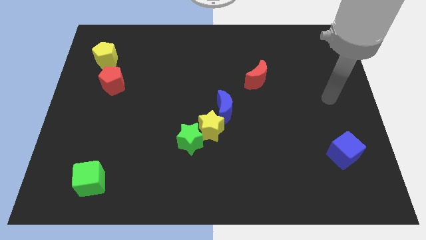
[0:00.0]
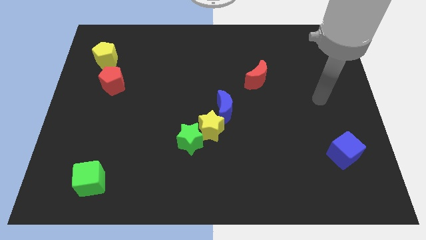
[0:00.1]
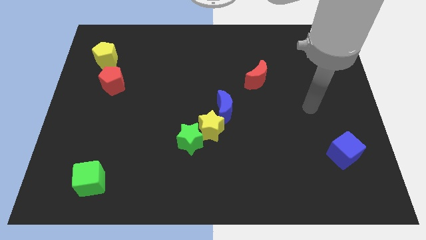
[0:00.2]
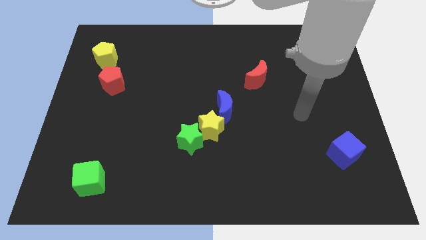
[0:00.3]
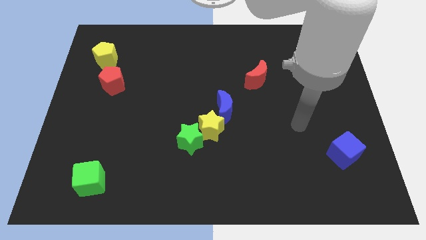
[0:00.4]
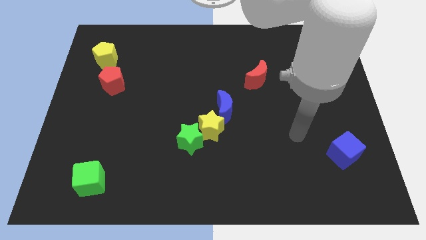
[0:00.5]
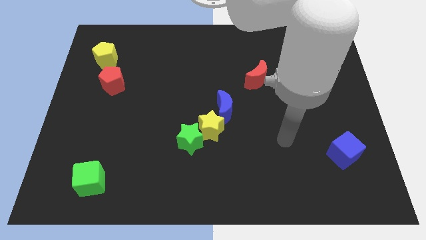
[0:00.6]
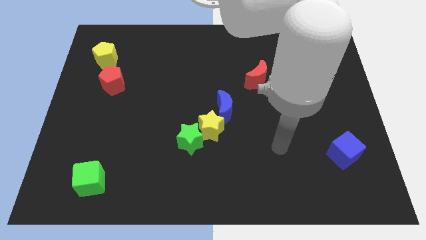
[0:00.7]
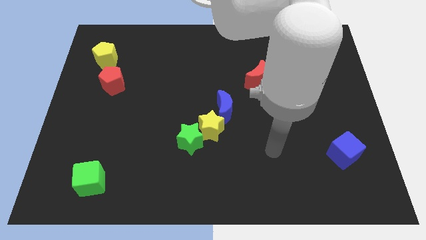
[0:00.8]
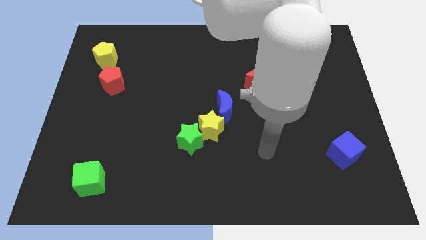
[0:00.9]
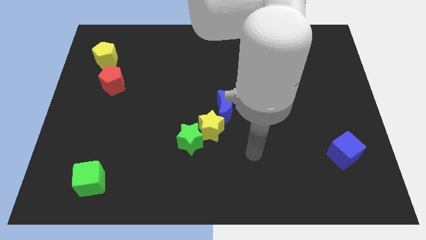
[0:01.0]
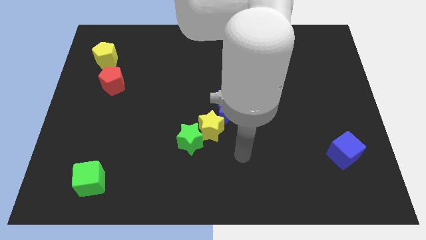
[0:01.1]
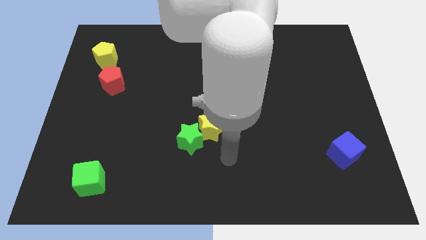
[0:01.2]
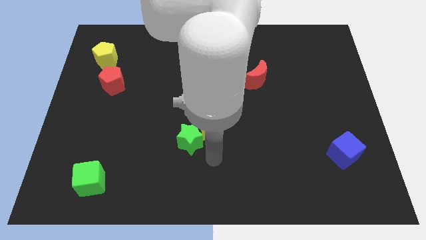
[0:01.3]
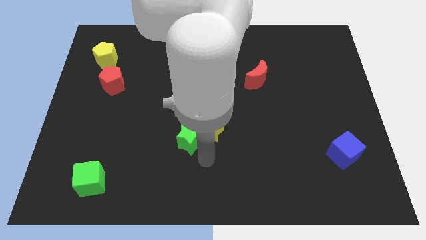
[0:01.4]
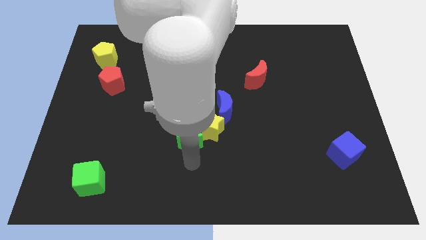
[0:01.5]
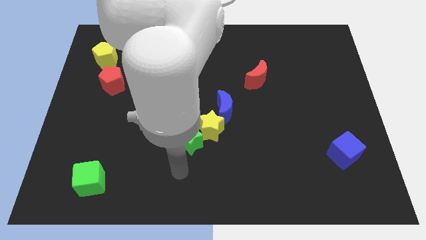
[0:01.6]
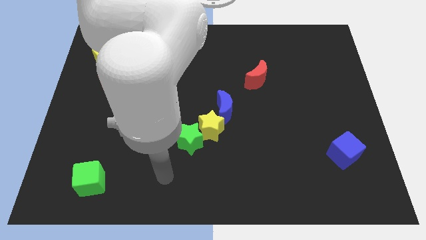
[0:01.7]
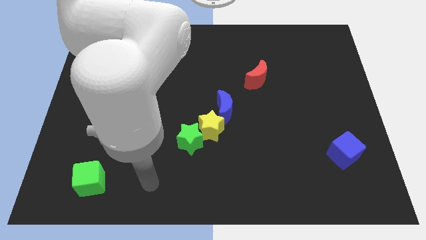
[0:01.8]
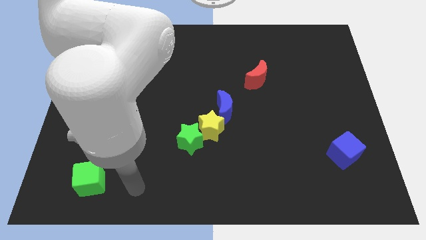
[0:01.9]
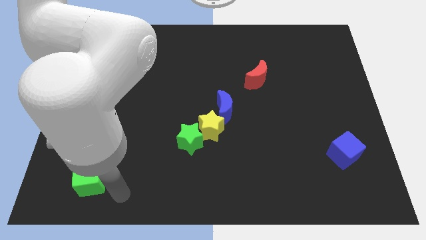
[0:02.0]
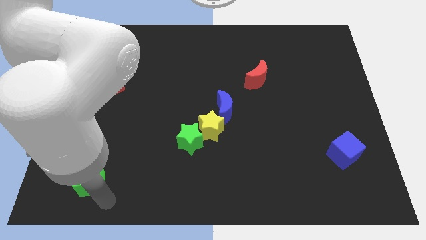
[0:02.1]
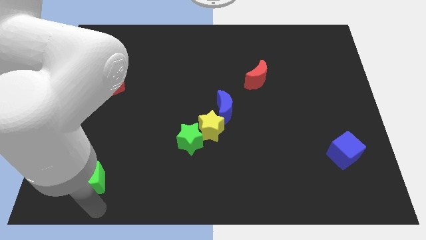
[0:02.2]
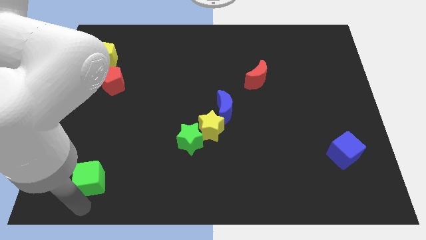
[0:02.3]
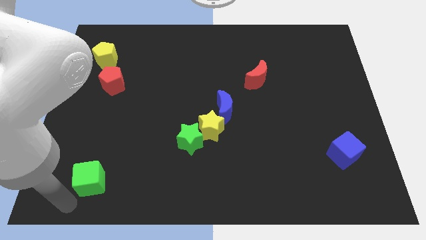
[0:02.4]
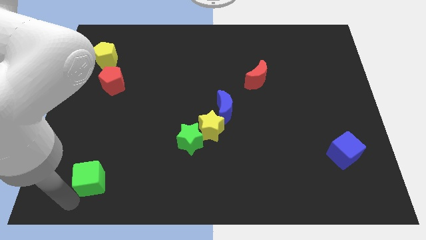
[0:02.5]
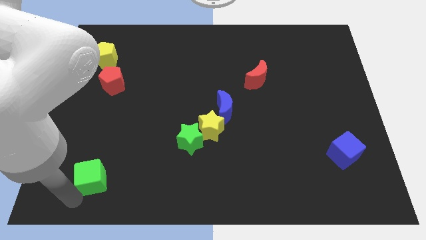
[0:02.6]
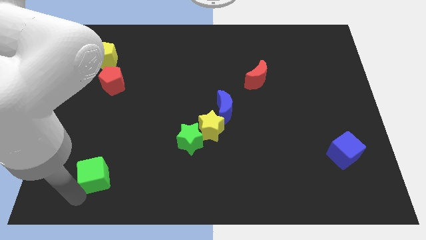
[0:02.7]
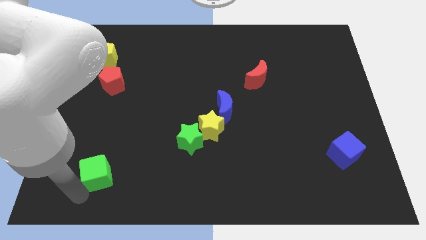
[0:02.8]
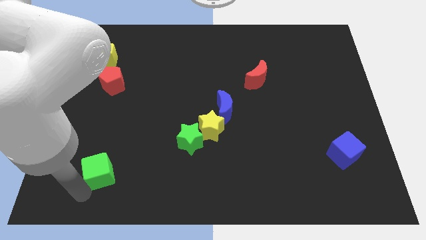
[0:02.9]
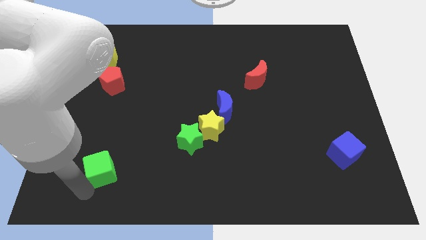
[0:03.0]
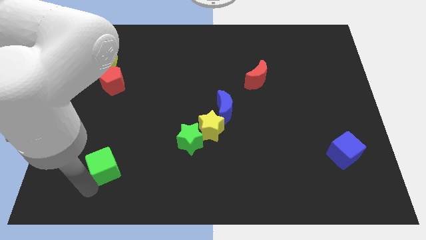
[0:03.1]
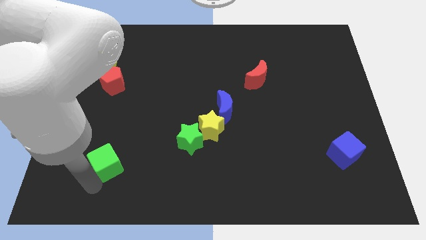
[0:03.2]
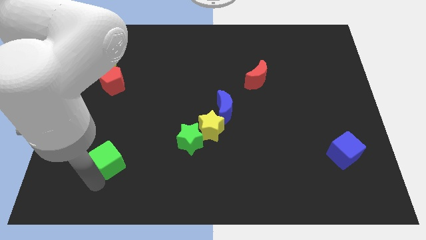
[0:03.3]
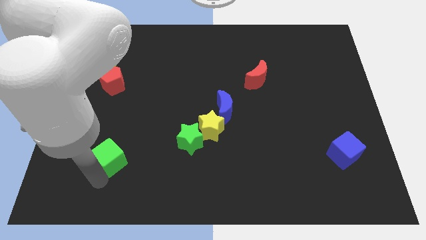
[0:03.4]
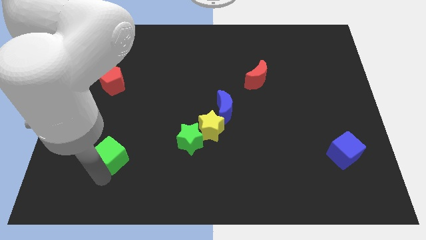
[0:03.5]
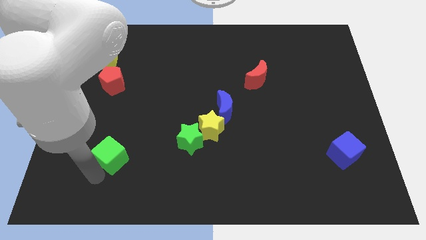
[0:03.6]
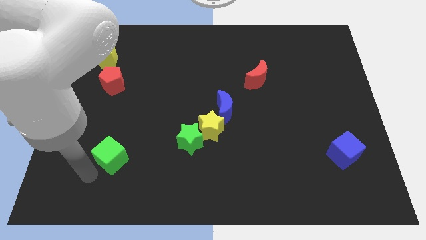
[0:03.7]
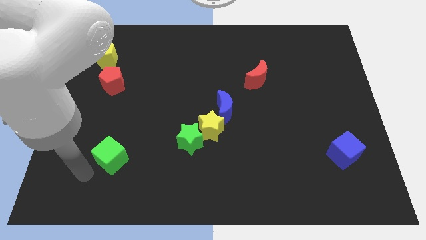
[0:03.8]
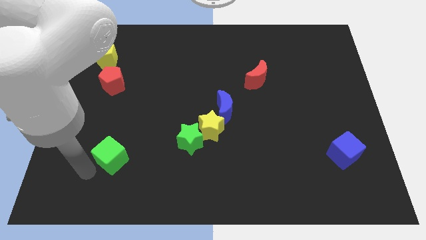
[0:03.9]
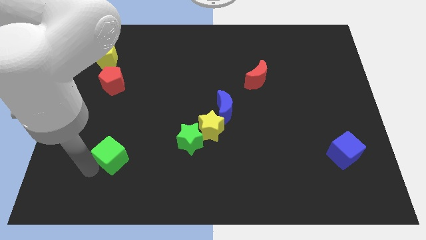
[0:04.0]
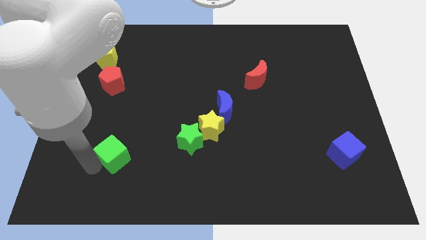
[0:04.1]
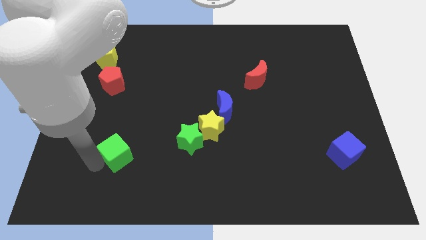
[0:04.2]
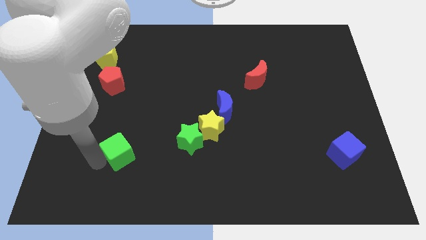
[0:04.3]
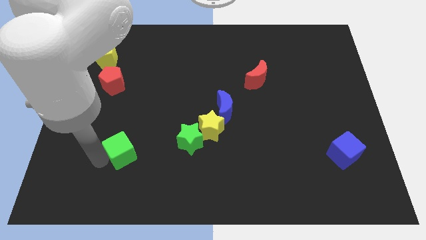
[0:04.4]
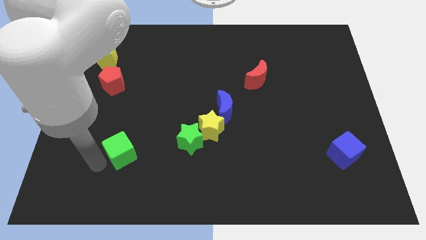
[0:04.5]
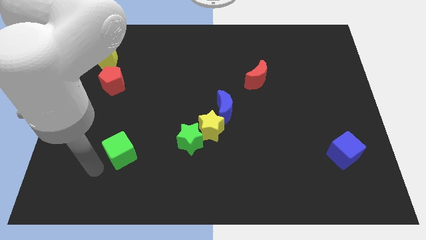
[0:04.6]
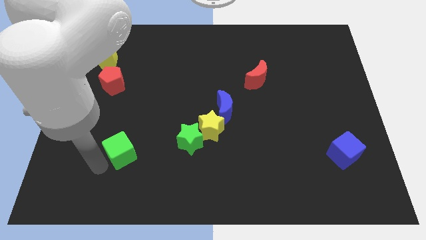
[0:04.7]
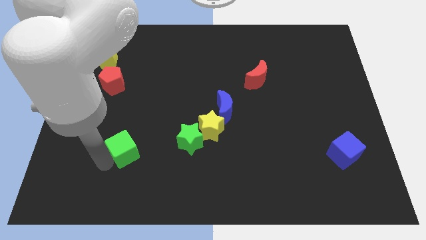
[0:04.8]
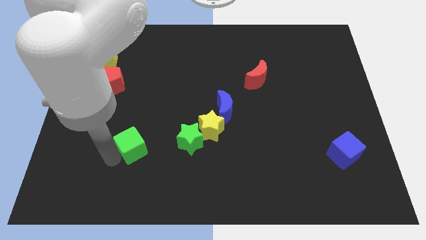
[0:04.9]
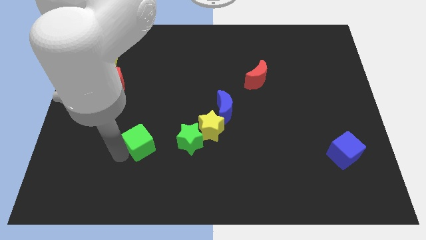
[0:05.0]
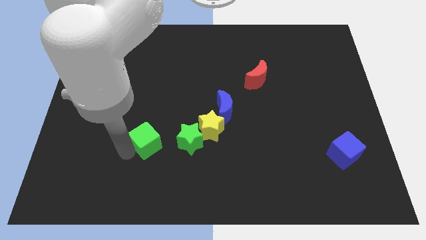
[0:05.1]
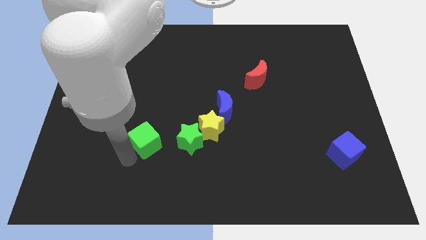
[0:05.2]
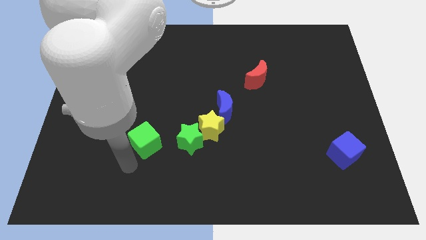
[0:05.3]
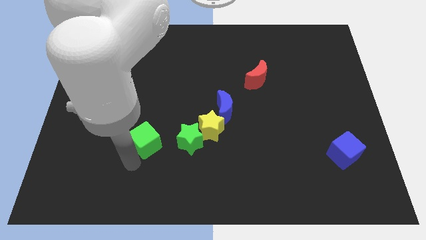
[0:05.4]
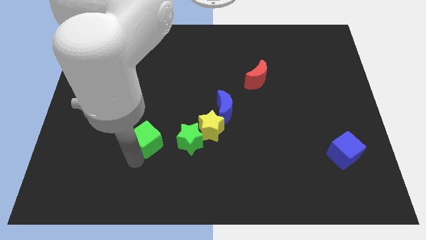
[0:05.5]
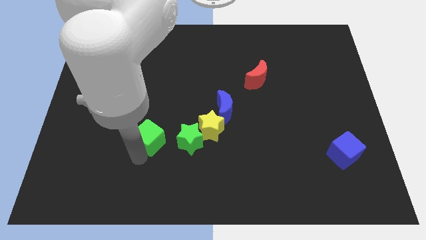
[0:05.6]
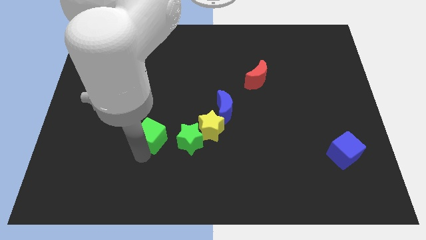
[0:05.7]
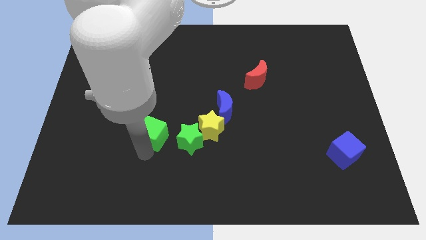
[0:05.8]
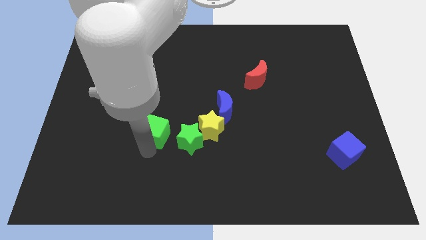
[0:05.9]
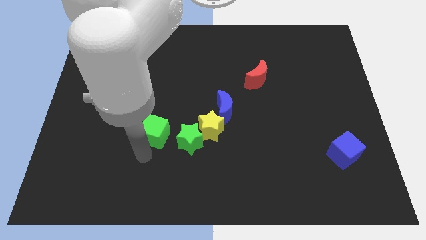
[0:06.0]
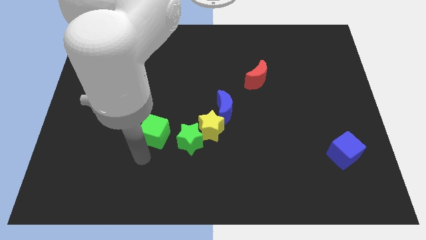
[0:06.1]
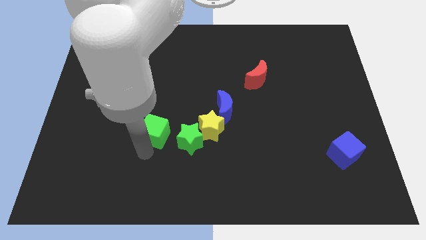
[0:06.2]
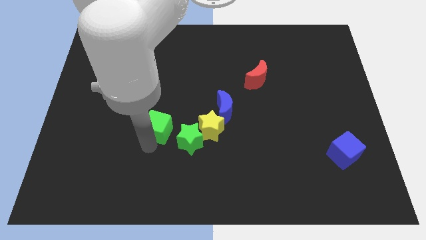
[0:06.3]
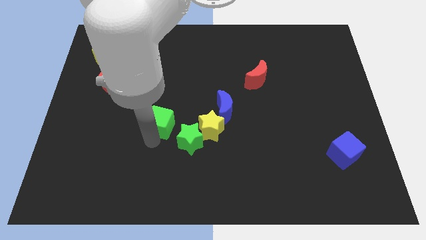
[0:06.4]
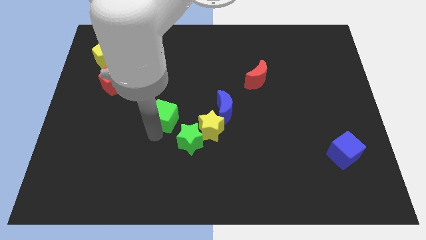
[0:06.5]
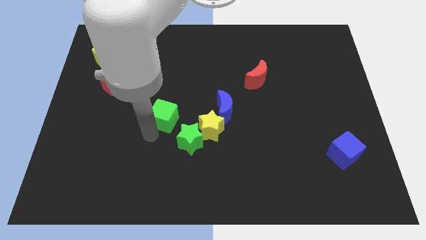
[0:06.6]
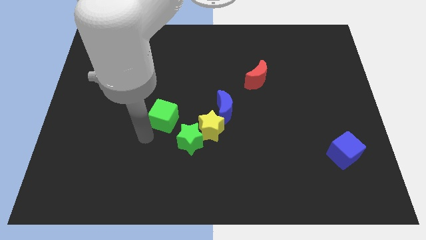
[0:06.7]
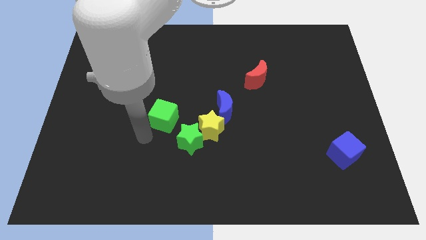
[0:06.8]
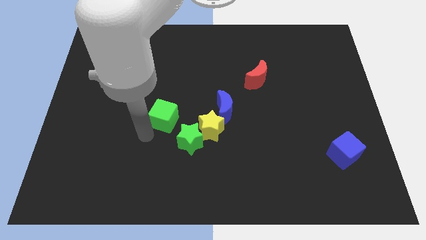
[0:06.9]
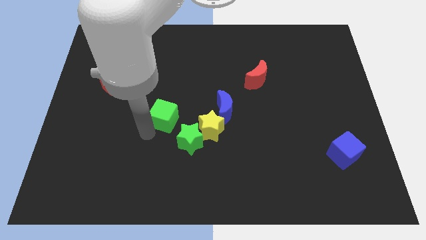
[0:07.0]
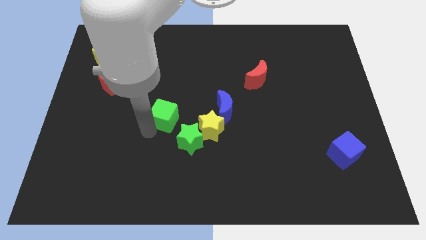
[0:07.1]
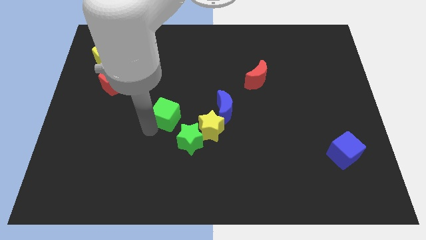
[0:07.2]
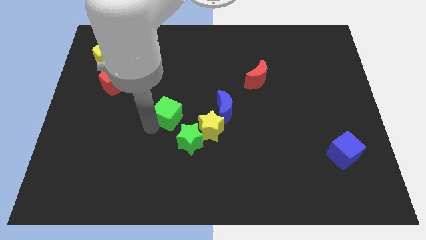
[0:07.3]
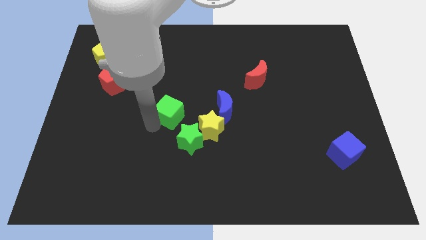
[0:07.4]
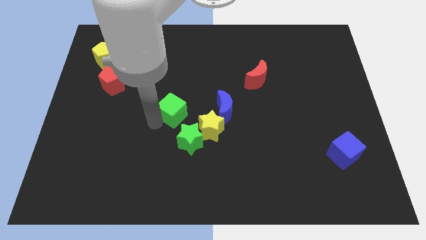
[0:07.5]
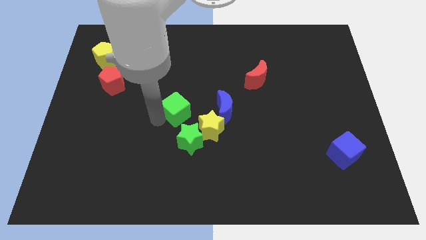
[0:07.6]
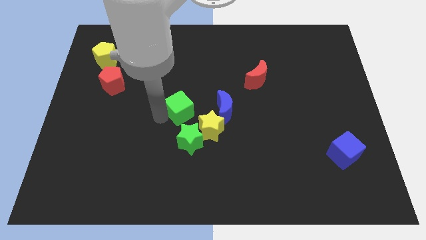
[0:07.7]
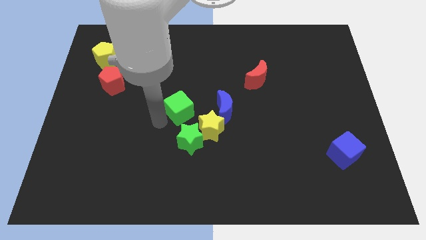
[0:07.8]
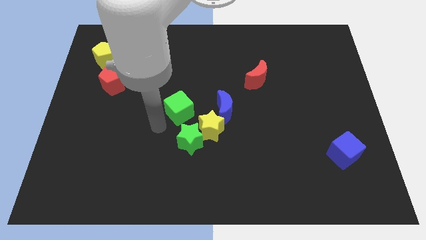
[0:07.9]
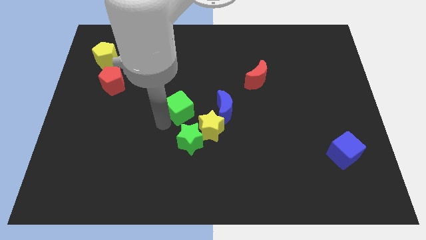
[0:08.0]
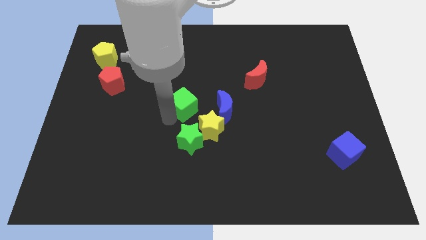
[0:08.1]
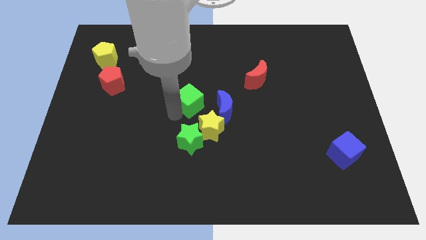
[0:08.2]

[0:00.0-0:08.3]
put the green cube diagonally up and to the left of the blue moon
